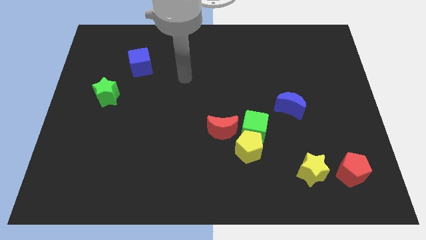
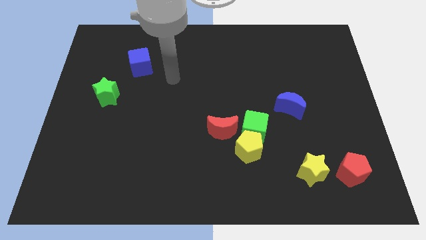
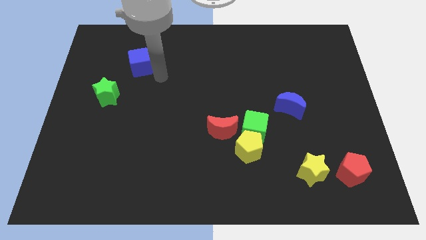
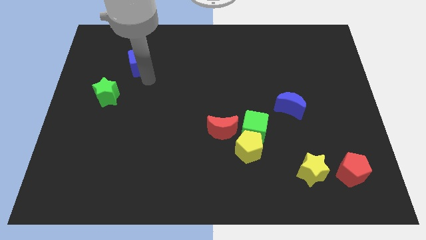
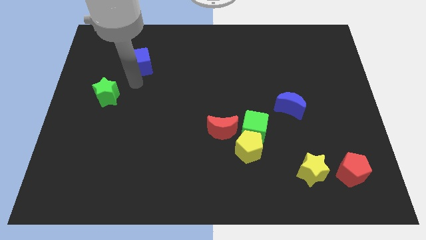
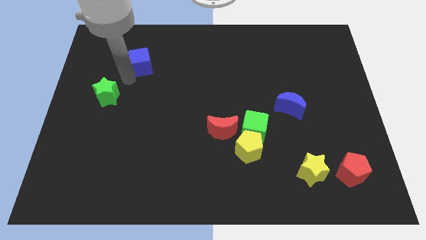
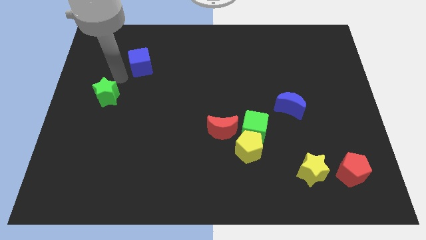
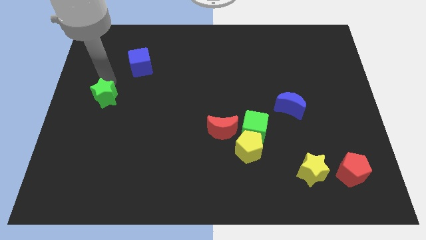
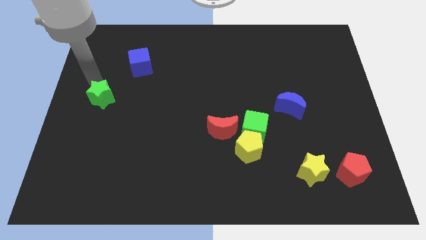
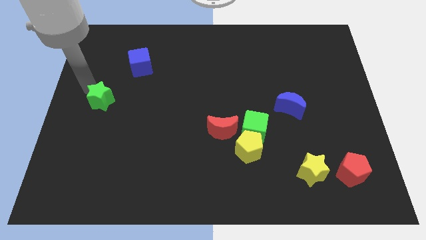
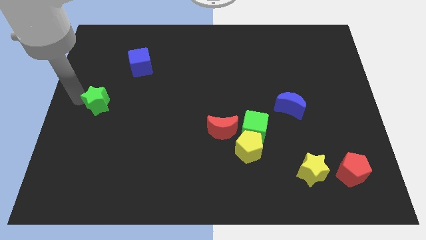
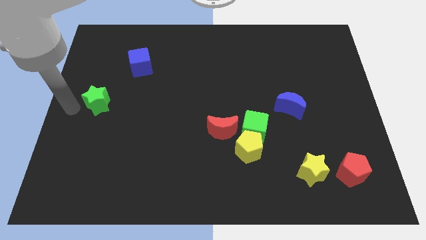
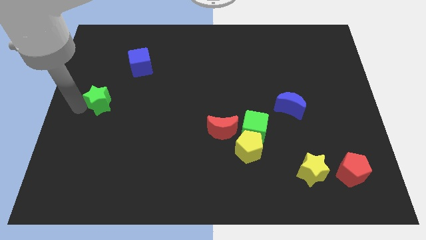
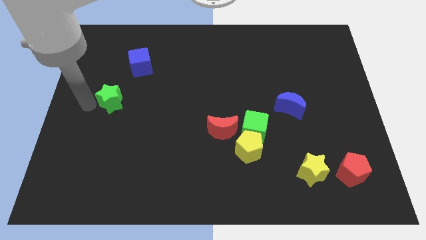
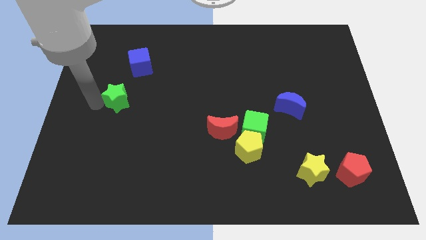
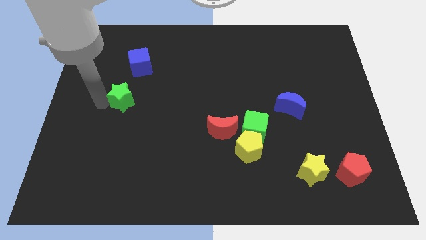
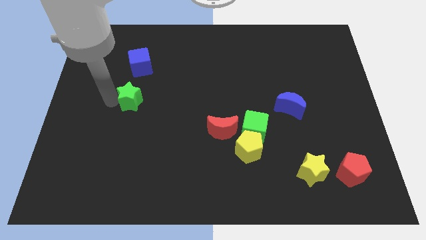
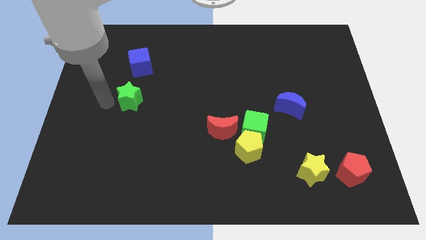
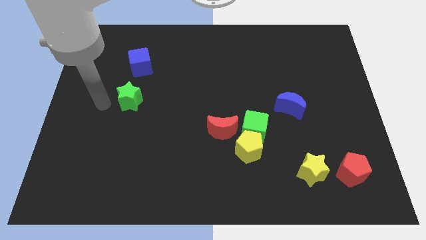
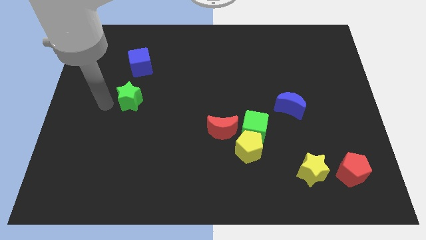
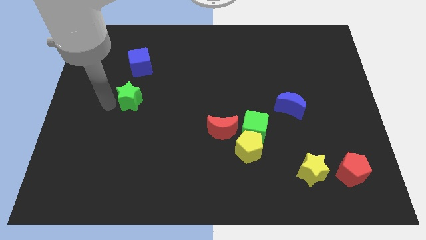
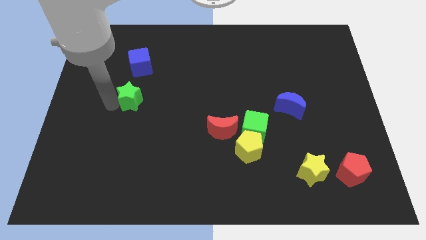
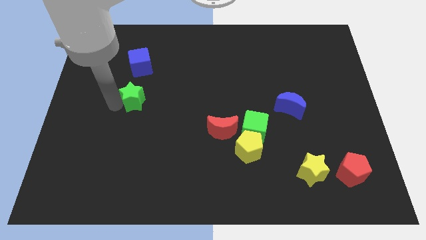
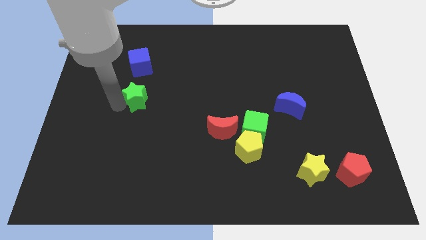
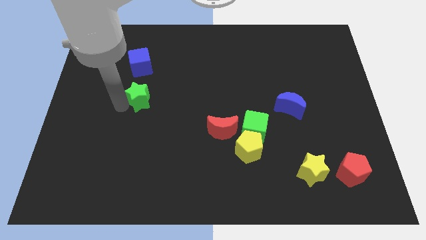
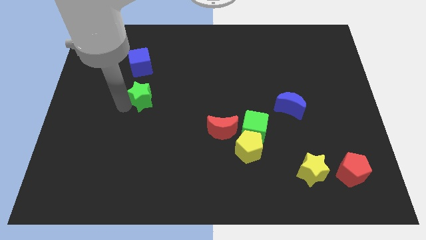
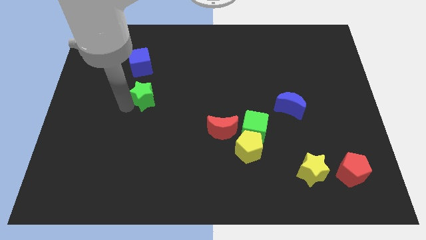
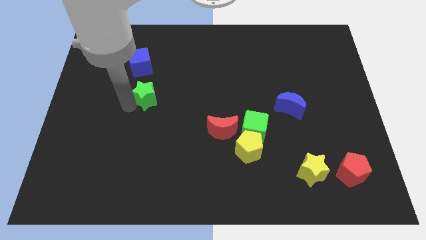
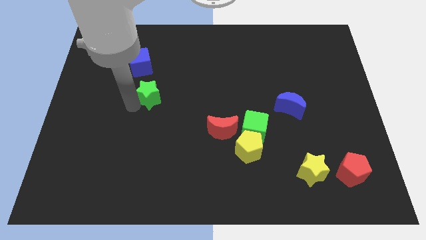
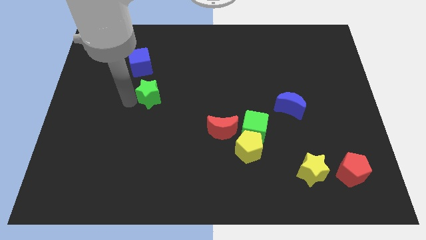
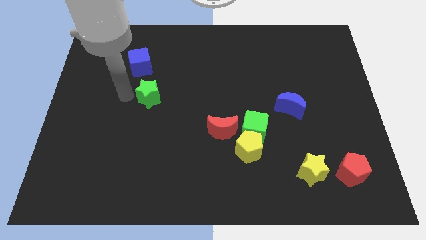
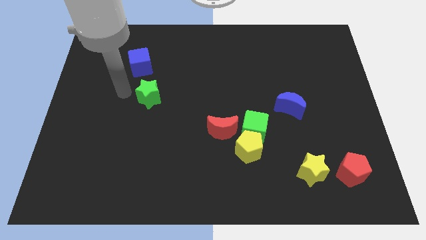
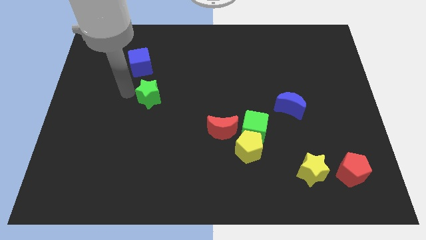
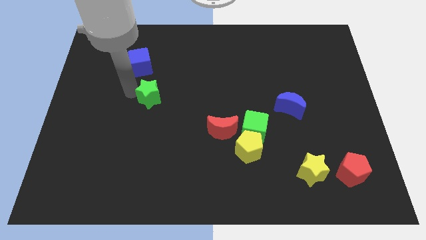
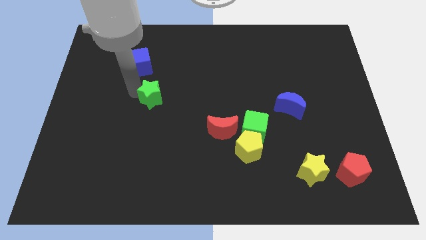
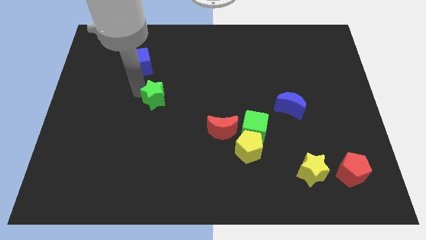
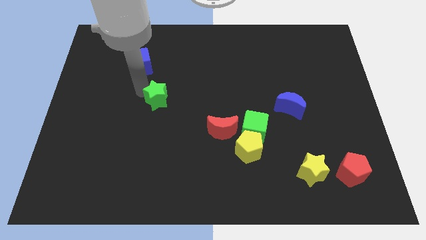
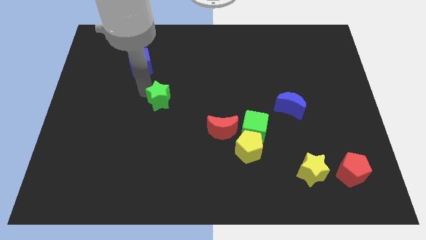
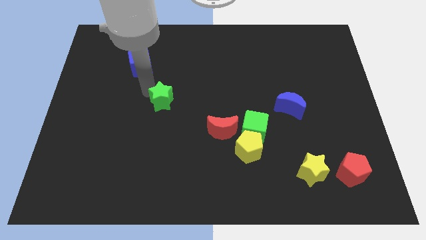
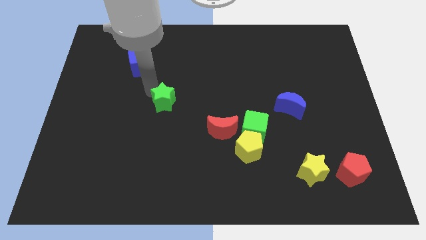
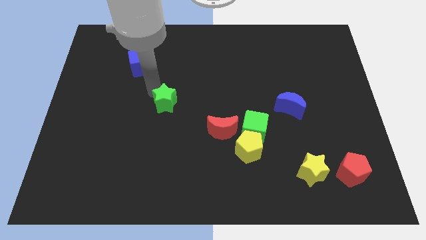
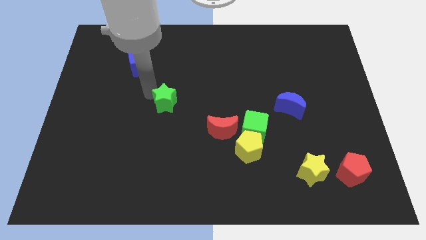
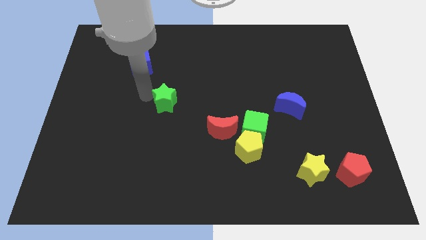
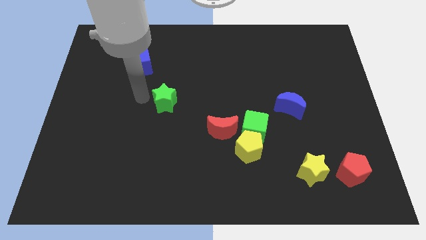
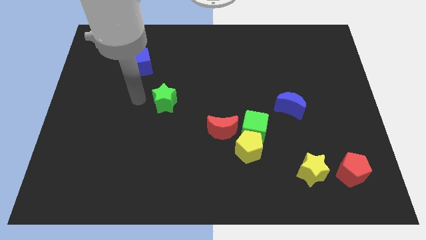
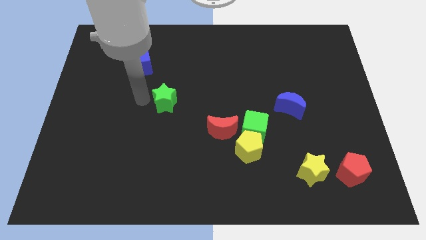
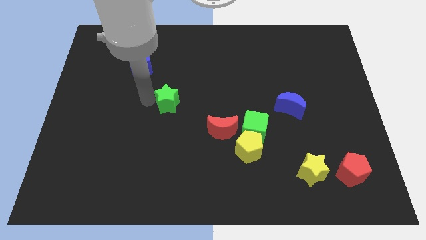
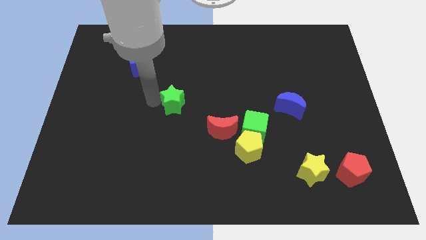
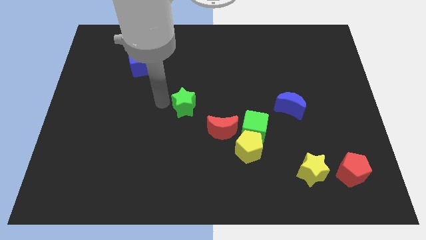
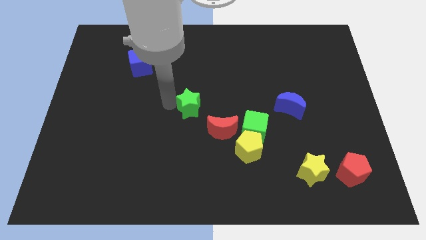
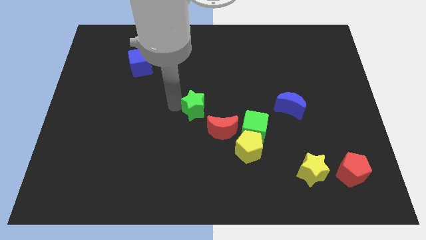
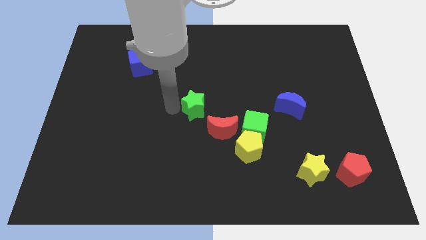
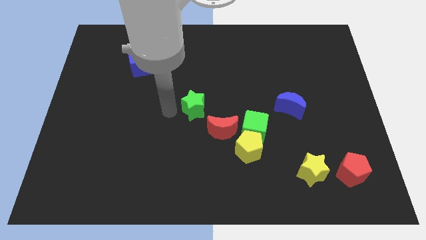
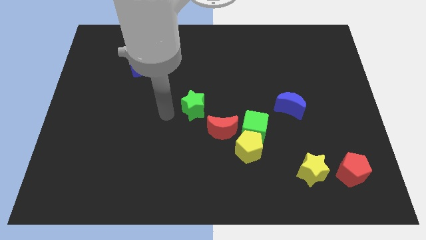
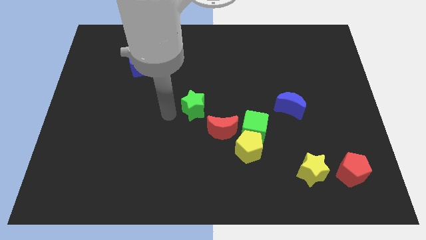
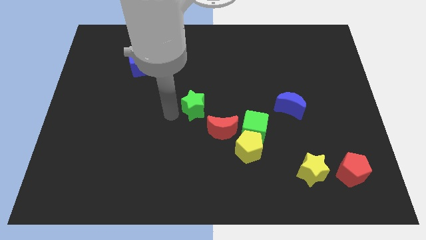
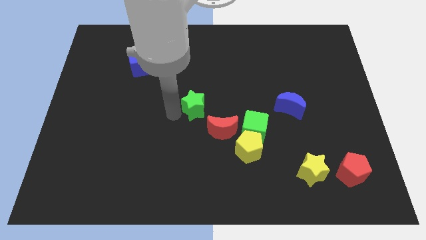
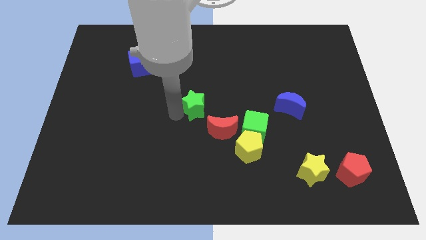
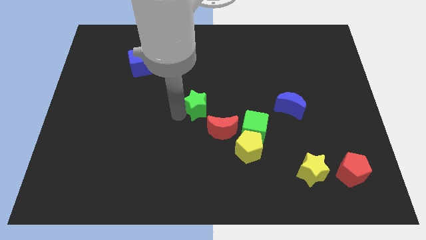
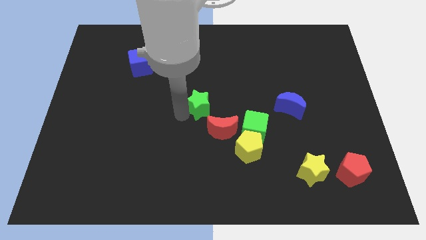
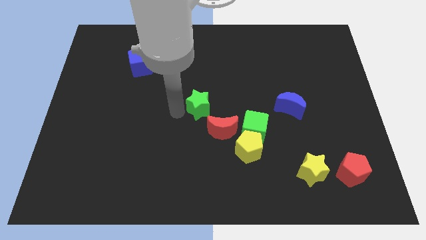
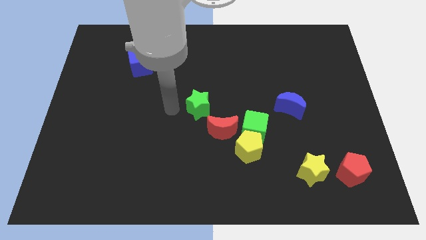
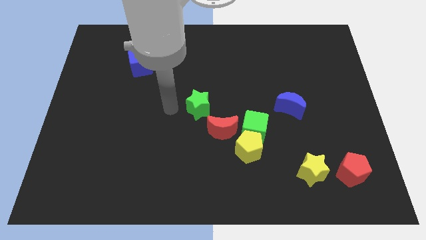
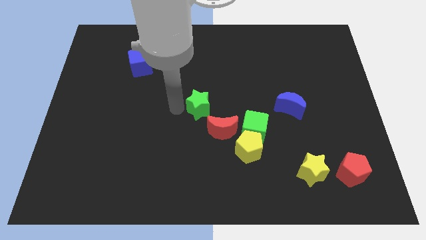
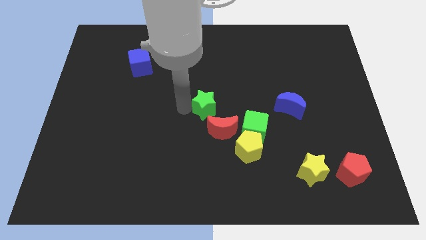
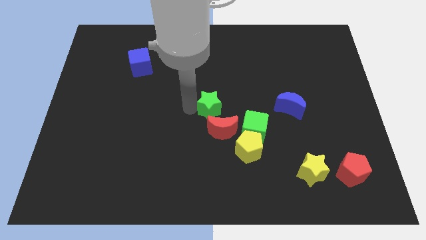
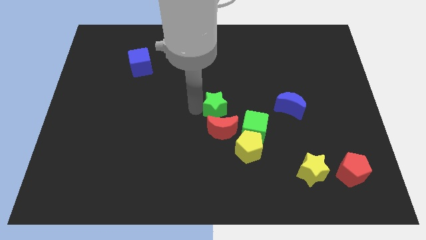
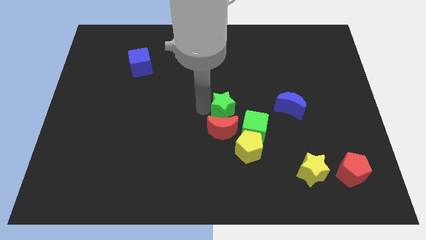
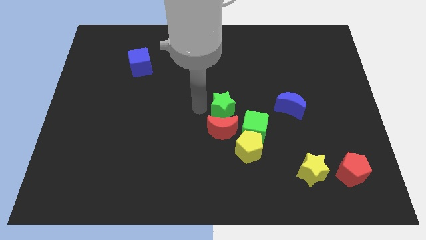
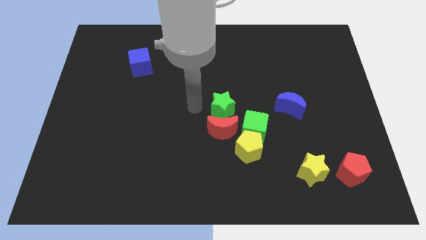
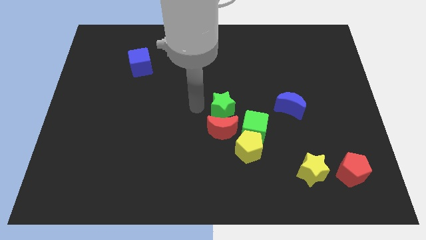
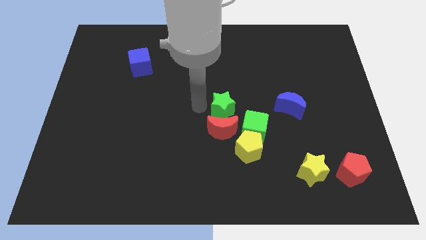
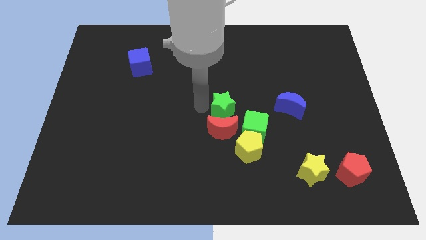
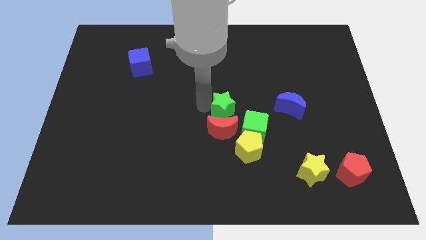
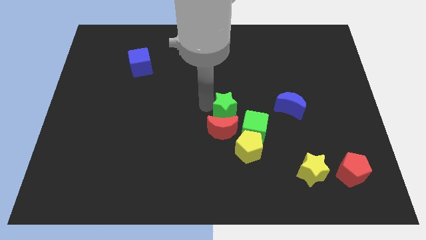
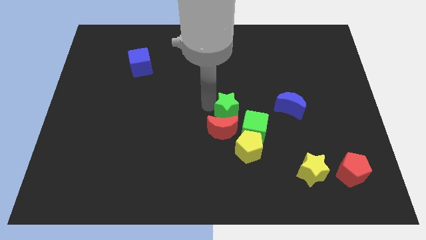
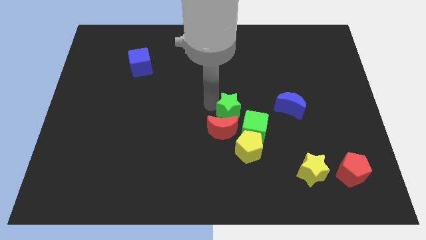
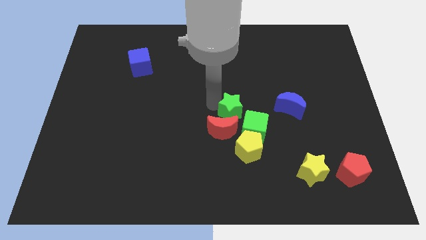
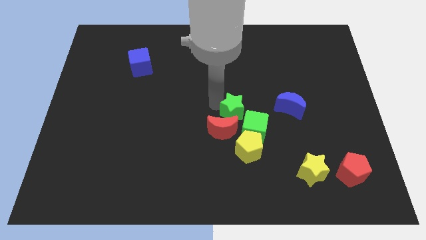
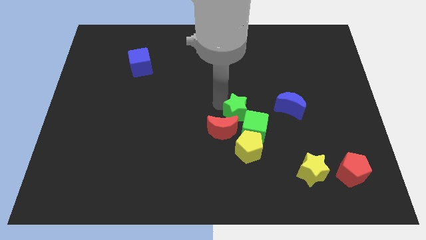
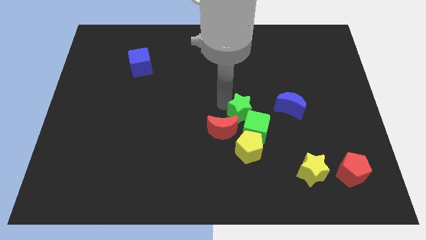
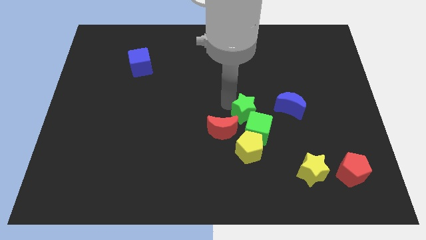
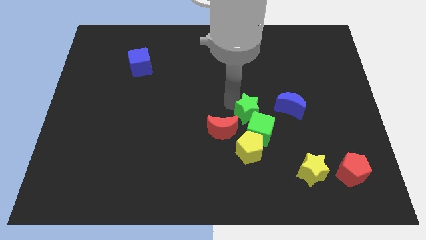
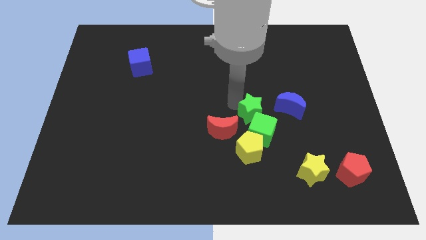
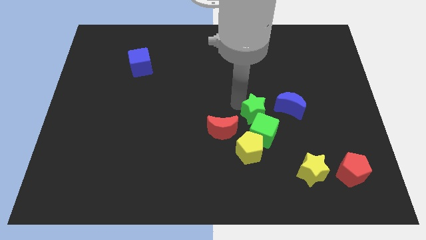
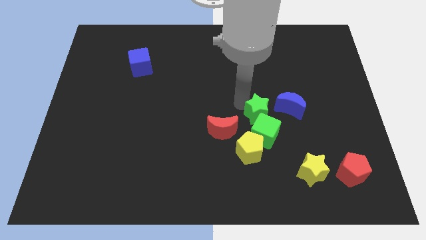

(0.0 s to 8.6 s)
move the green star to the bottom left of the blue moon
